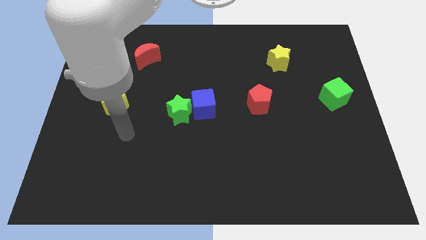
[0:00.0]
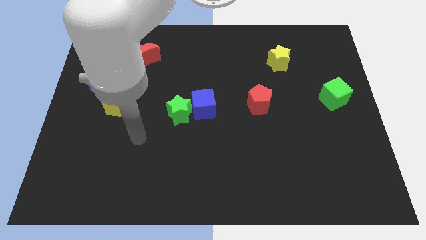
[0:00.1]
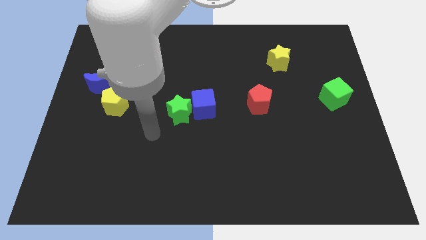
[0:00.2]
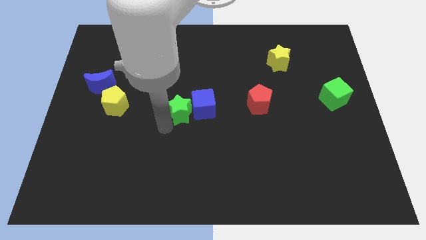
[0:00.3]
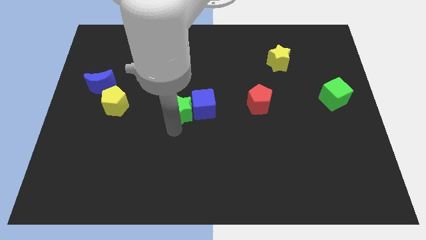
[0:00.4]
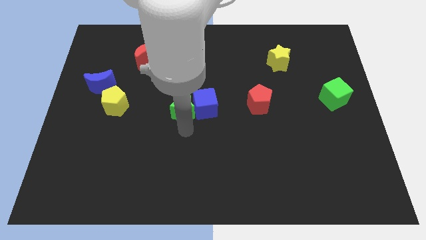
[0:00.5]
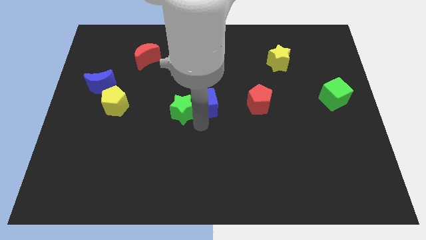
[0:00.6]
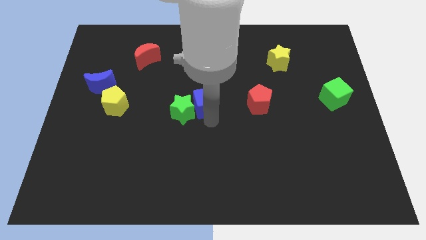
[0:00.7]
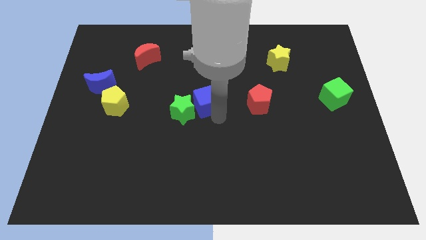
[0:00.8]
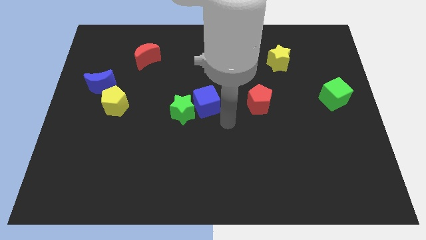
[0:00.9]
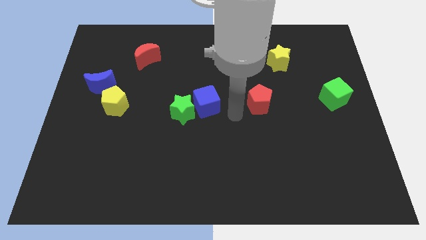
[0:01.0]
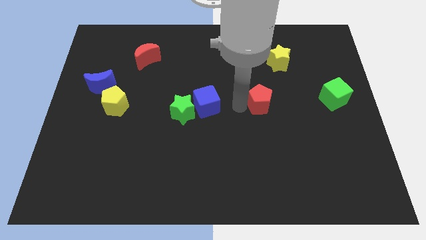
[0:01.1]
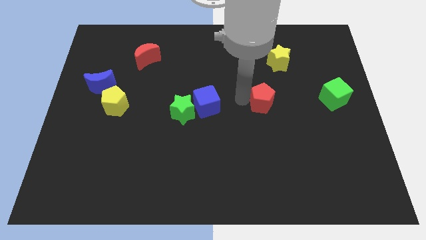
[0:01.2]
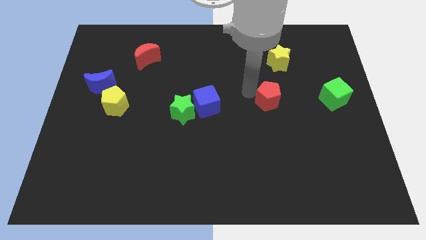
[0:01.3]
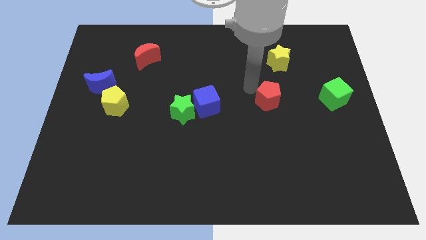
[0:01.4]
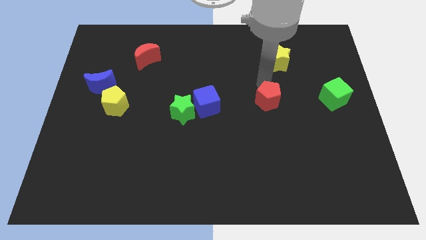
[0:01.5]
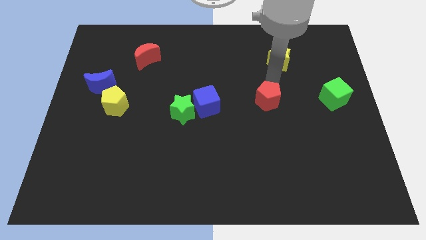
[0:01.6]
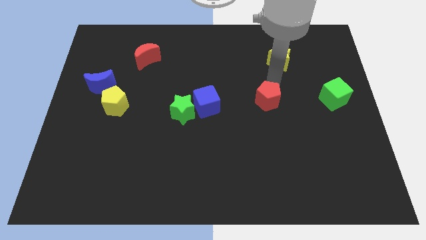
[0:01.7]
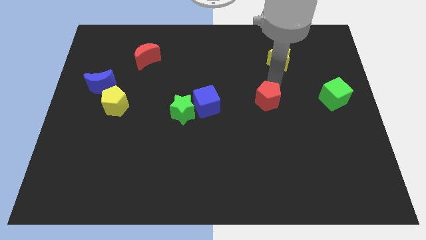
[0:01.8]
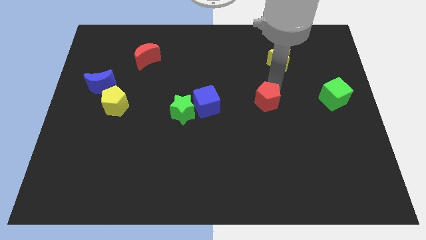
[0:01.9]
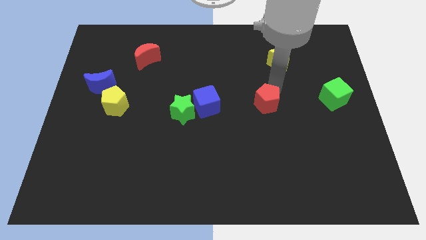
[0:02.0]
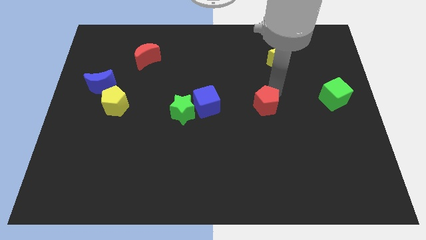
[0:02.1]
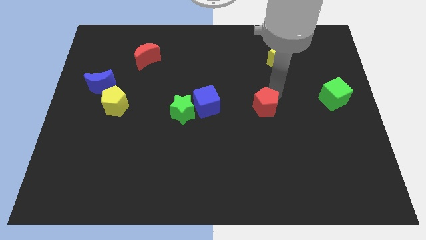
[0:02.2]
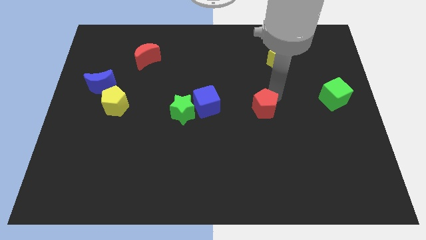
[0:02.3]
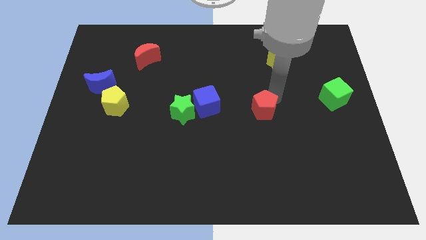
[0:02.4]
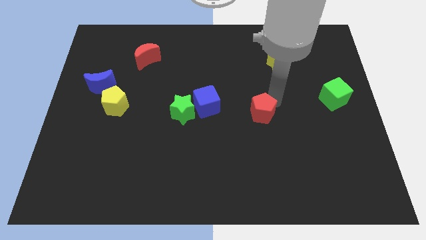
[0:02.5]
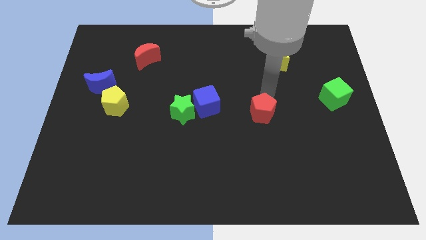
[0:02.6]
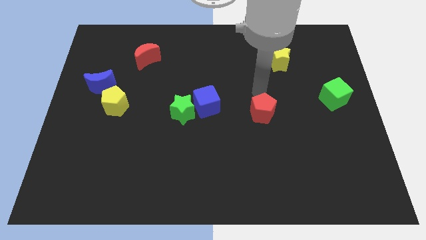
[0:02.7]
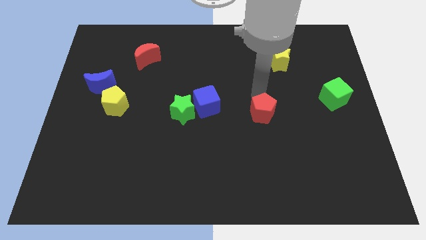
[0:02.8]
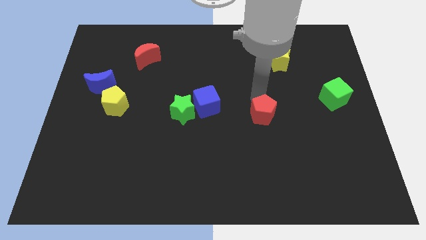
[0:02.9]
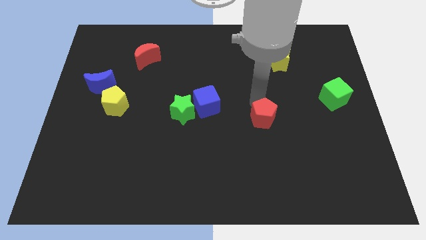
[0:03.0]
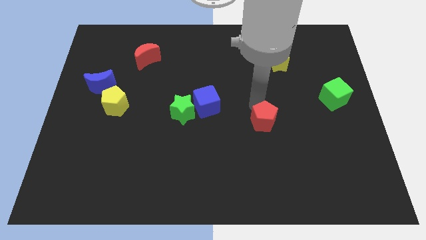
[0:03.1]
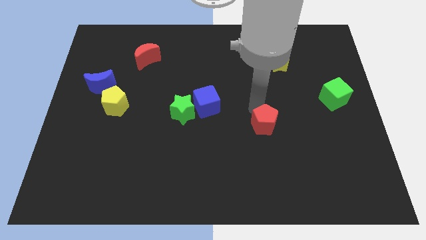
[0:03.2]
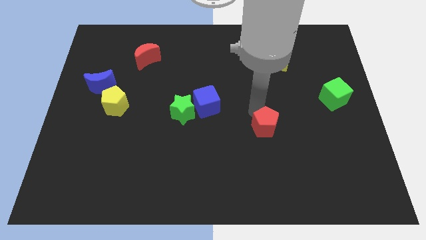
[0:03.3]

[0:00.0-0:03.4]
slightly push the red pentagon down

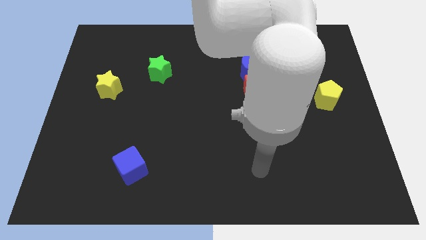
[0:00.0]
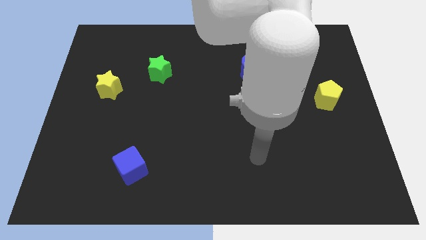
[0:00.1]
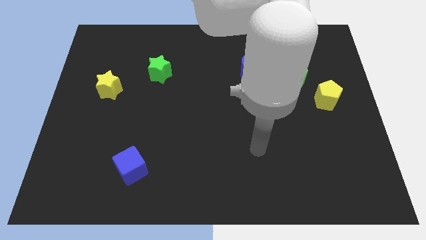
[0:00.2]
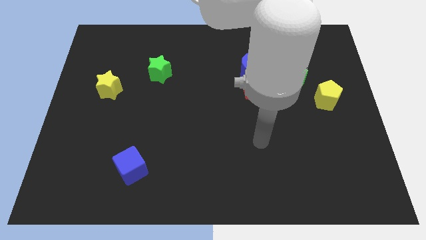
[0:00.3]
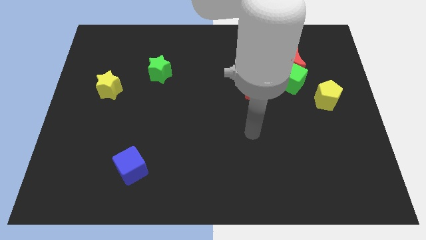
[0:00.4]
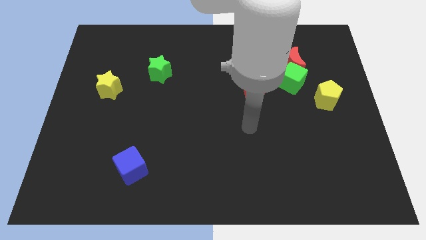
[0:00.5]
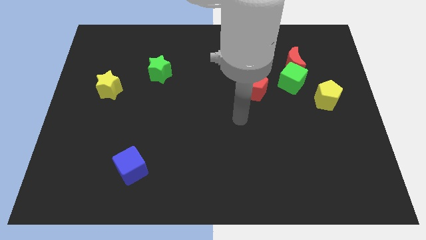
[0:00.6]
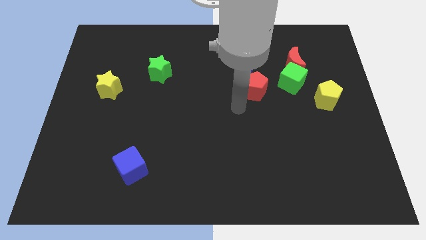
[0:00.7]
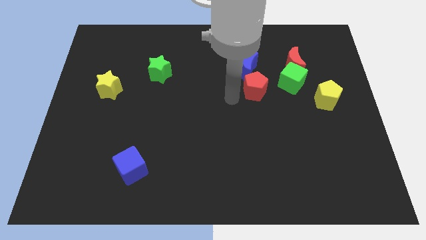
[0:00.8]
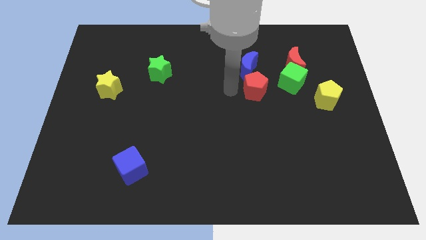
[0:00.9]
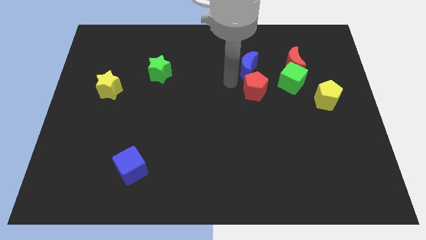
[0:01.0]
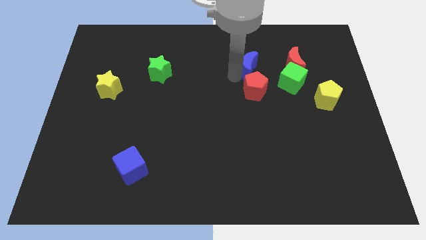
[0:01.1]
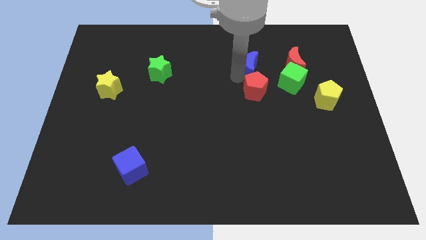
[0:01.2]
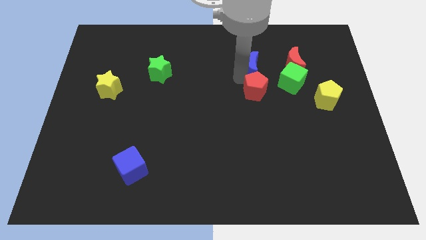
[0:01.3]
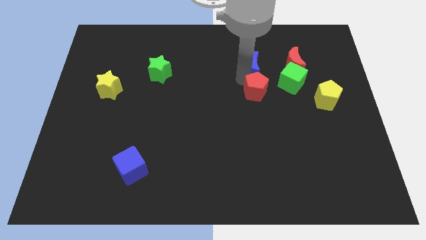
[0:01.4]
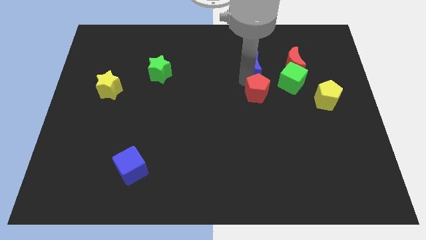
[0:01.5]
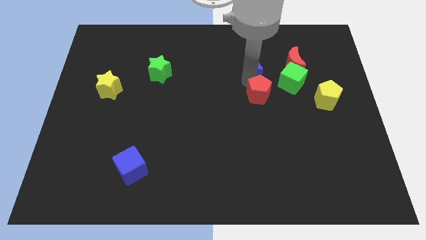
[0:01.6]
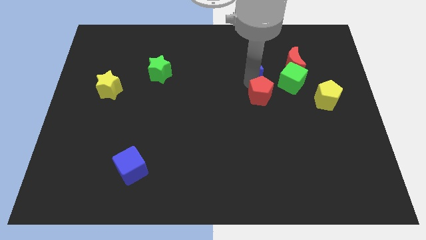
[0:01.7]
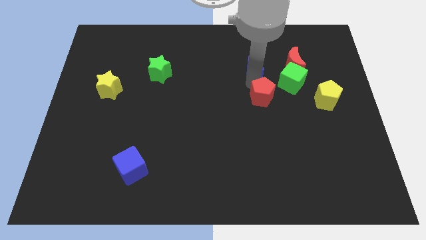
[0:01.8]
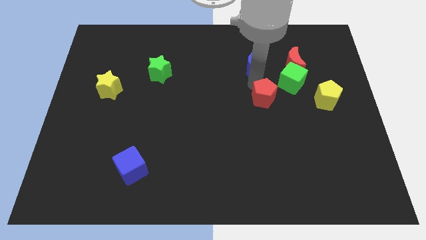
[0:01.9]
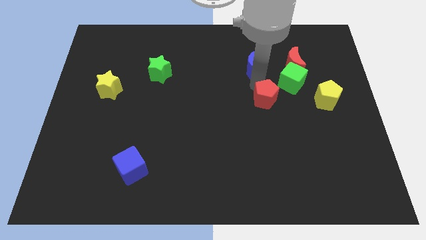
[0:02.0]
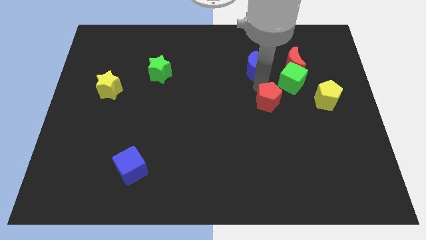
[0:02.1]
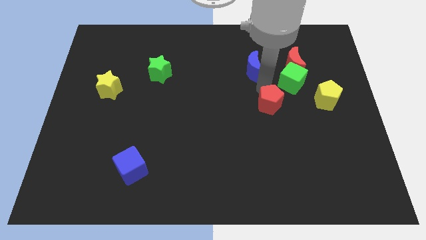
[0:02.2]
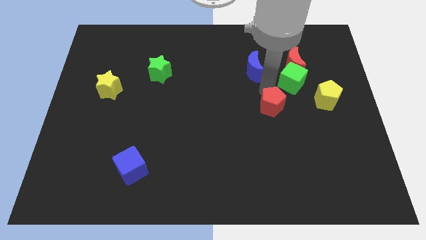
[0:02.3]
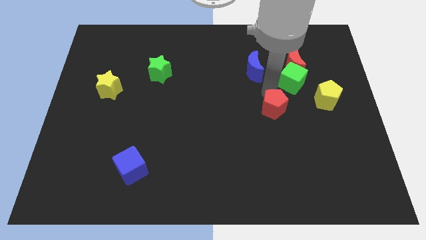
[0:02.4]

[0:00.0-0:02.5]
slide the red pentagon diagonally down and right slightly

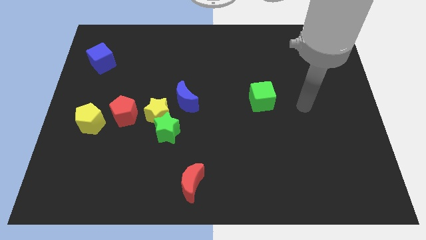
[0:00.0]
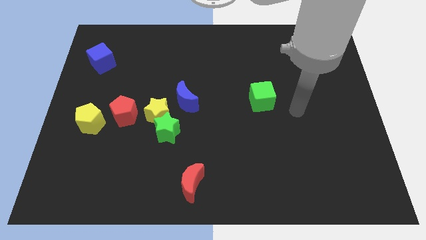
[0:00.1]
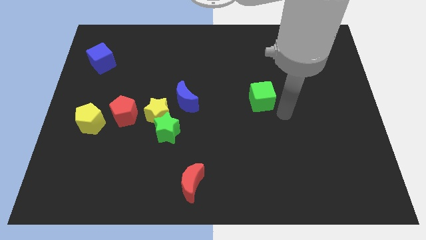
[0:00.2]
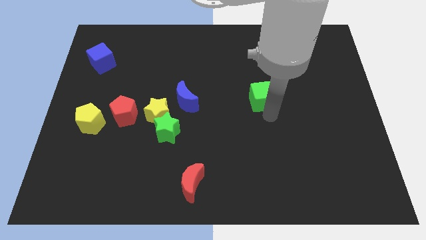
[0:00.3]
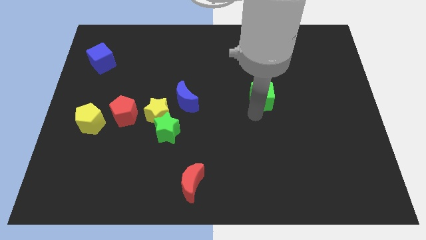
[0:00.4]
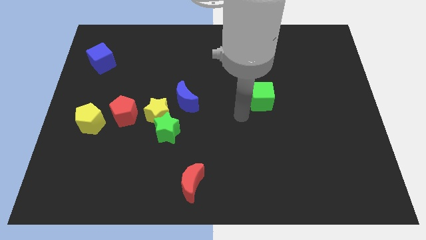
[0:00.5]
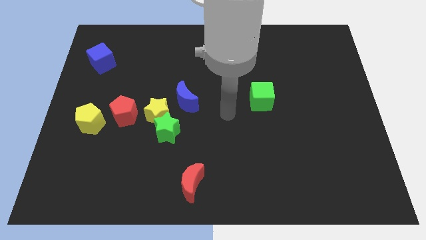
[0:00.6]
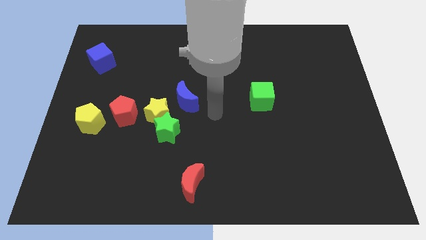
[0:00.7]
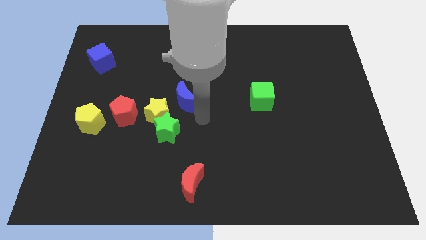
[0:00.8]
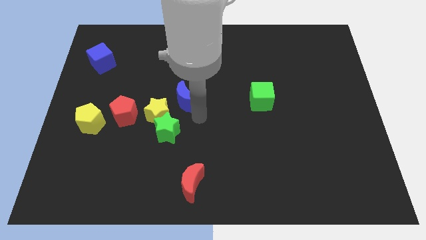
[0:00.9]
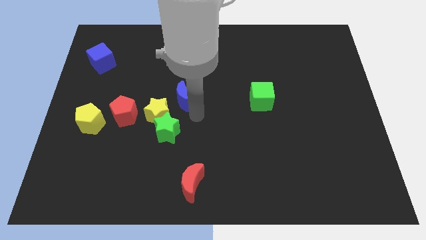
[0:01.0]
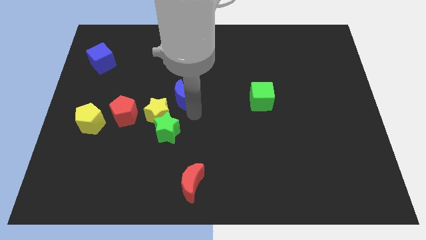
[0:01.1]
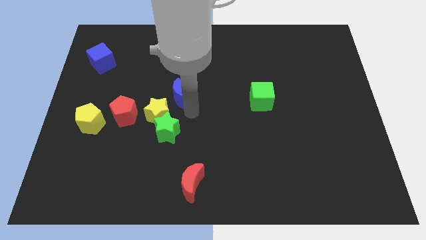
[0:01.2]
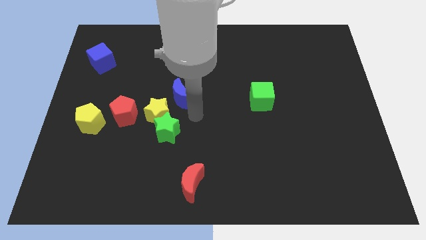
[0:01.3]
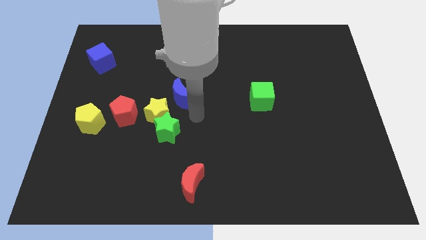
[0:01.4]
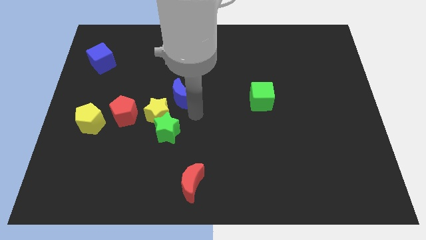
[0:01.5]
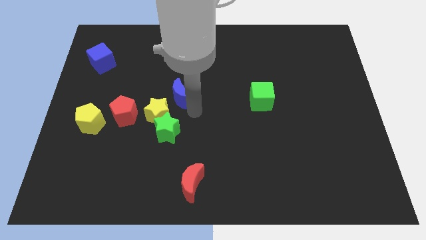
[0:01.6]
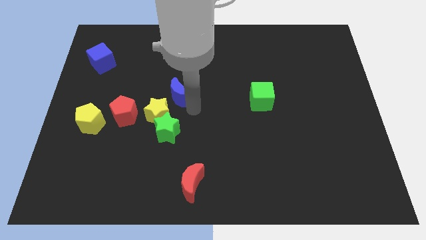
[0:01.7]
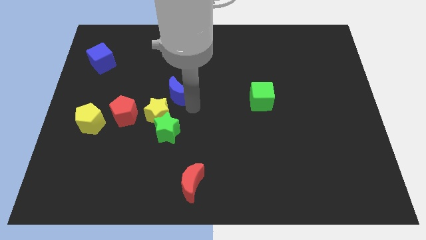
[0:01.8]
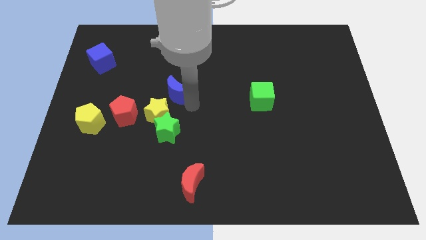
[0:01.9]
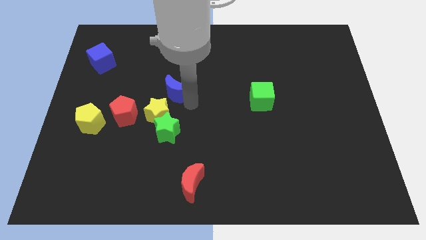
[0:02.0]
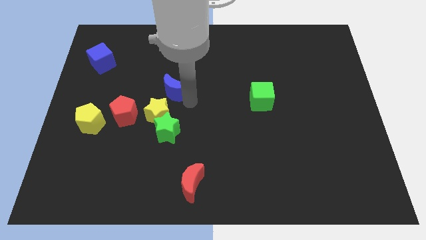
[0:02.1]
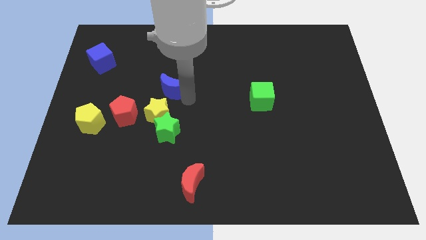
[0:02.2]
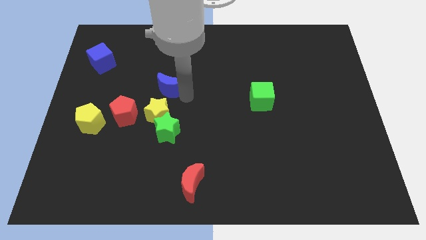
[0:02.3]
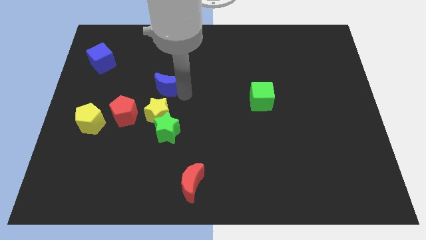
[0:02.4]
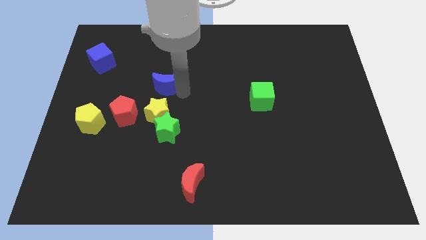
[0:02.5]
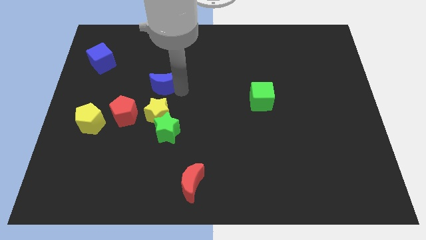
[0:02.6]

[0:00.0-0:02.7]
move the blue moon slightly upwards and then to the left
